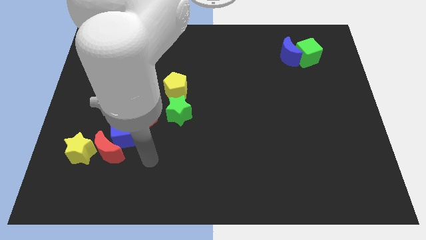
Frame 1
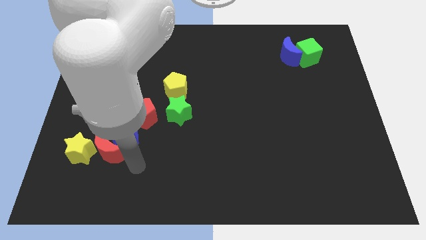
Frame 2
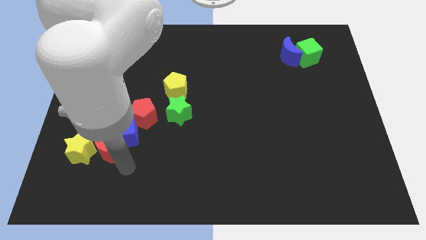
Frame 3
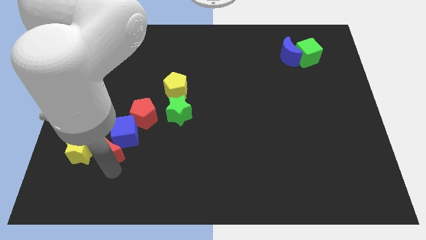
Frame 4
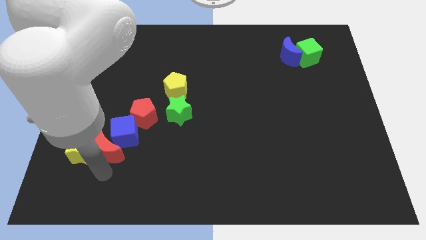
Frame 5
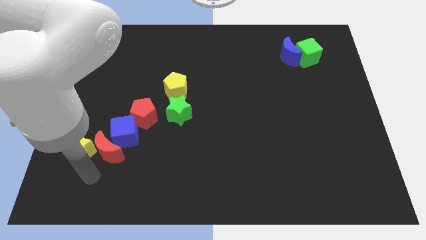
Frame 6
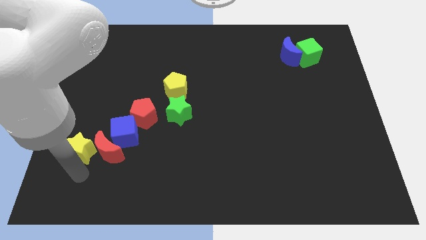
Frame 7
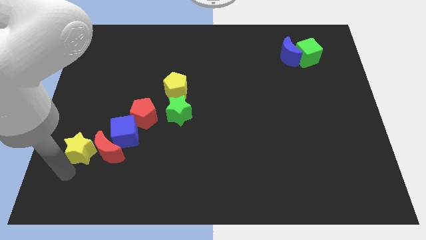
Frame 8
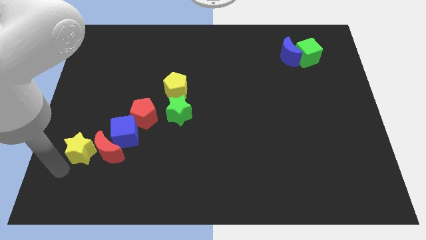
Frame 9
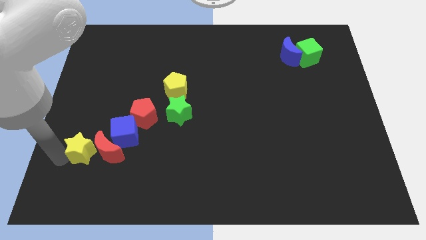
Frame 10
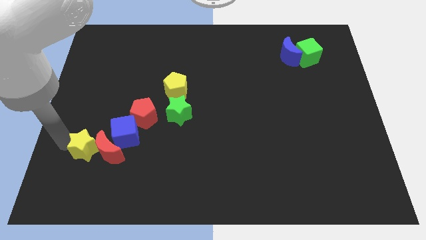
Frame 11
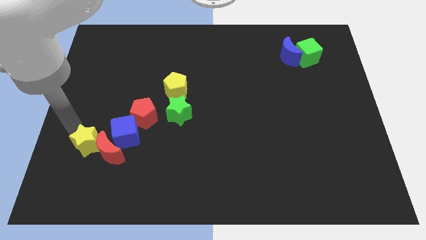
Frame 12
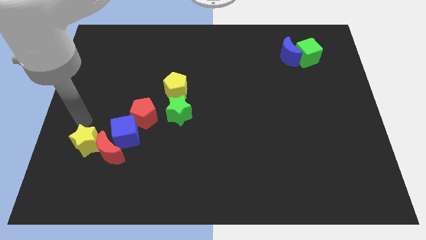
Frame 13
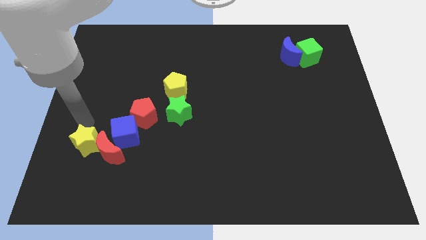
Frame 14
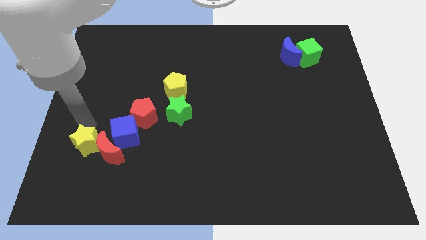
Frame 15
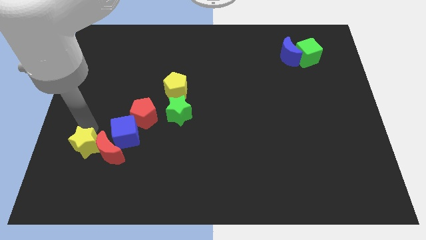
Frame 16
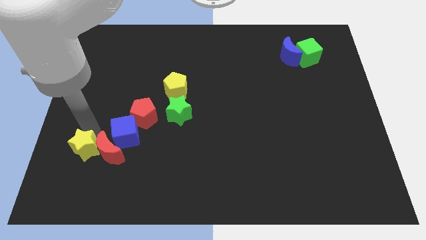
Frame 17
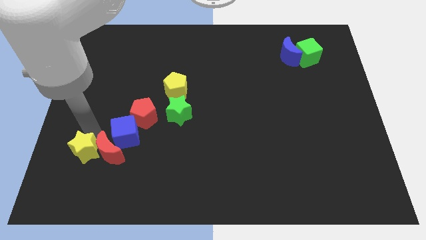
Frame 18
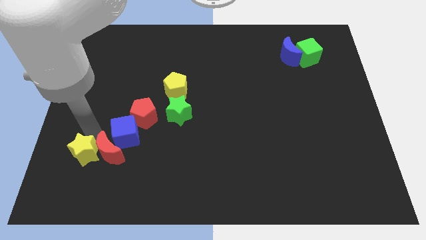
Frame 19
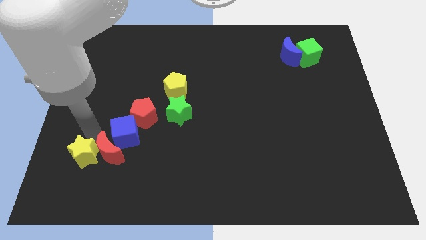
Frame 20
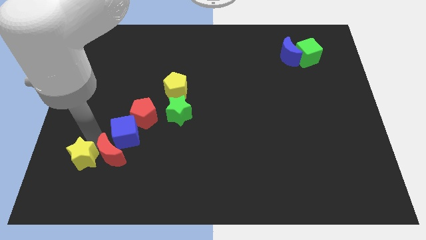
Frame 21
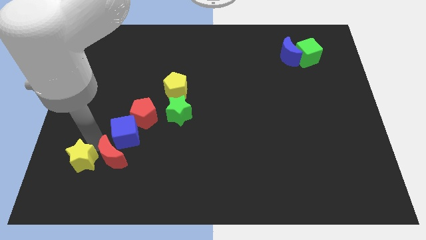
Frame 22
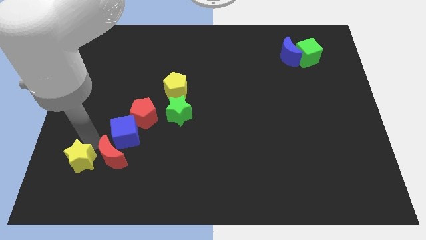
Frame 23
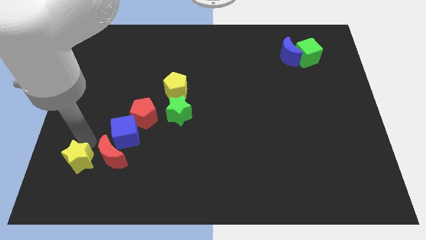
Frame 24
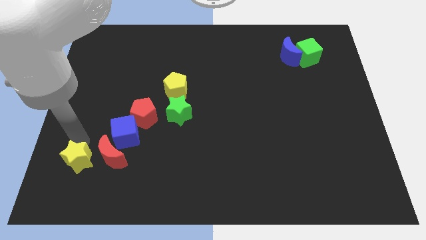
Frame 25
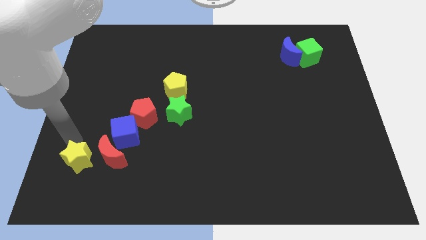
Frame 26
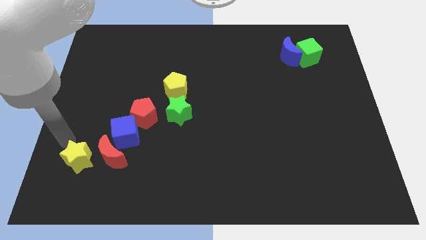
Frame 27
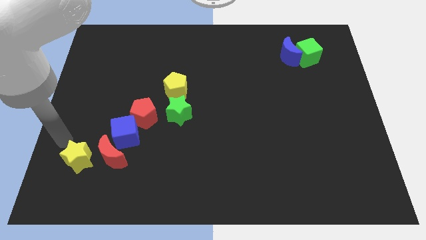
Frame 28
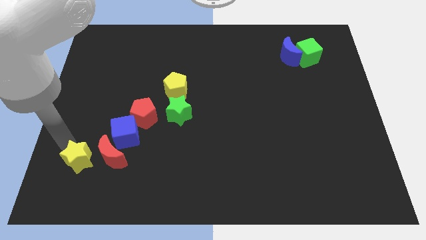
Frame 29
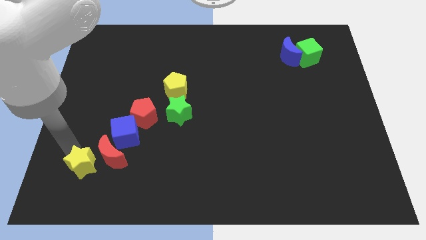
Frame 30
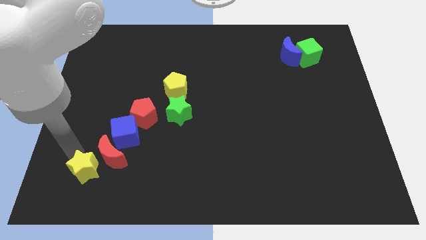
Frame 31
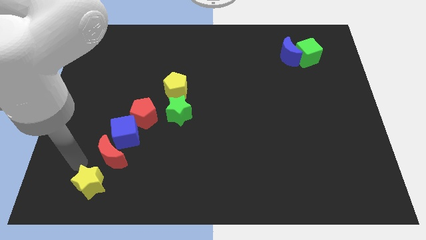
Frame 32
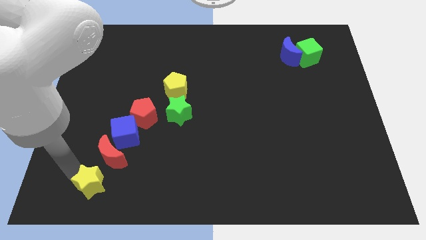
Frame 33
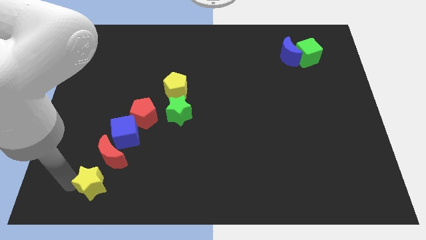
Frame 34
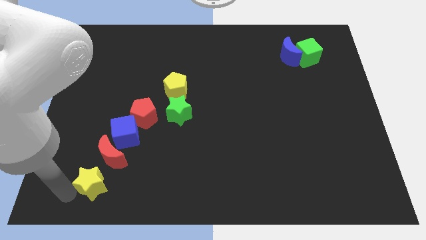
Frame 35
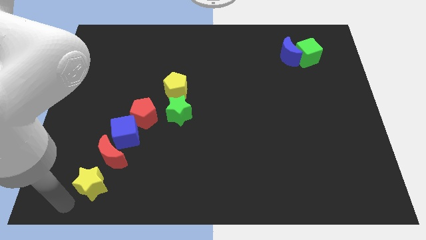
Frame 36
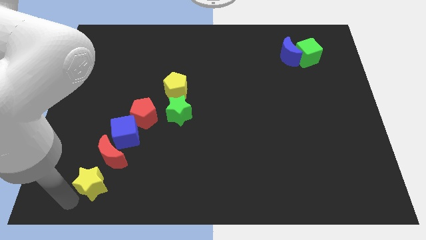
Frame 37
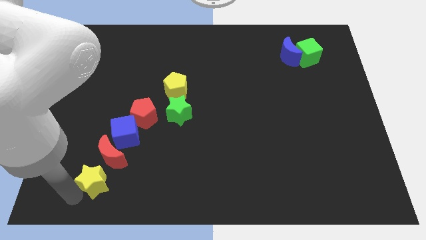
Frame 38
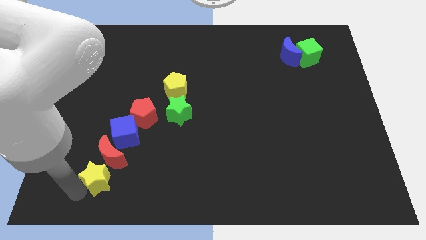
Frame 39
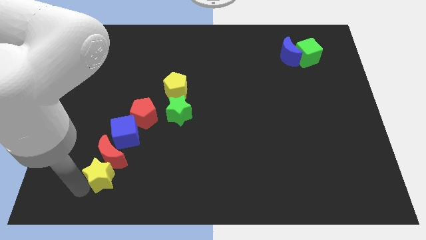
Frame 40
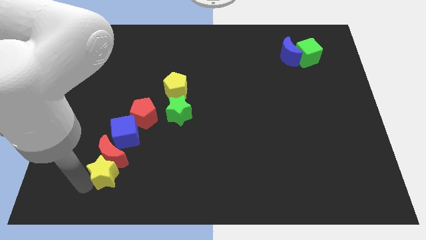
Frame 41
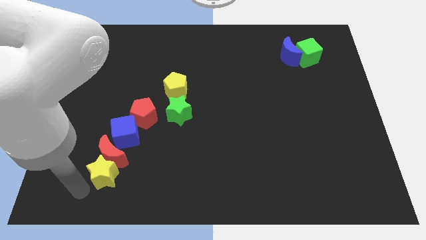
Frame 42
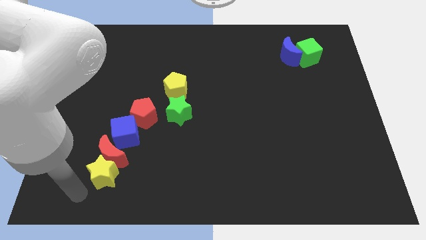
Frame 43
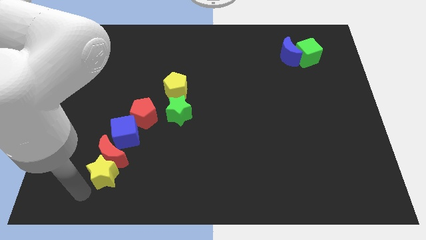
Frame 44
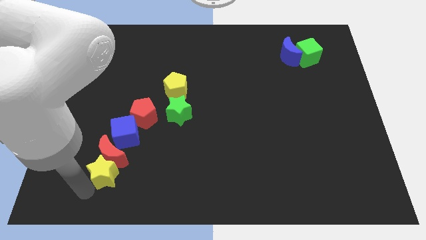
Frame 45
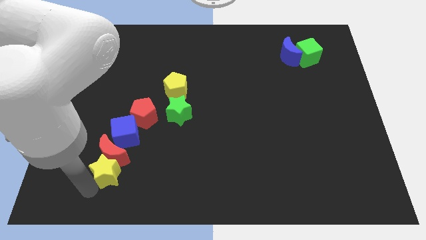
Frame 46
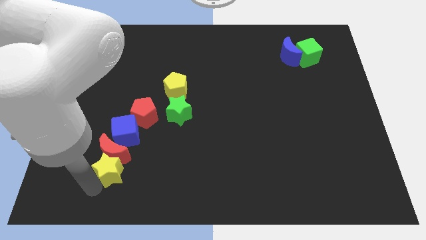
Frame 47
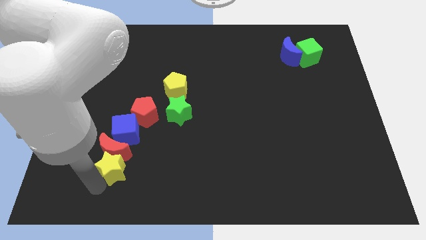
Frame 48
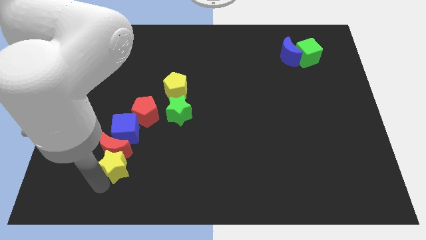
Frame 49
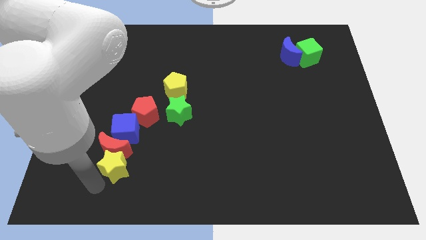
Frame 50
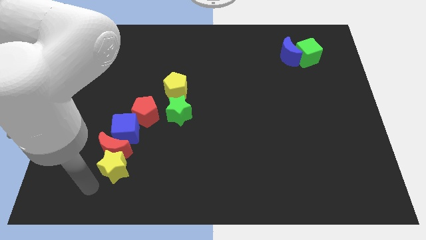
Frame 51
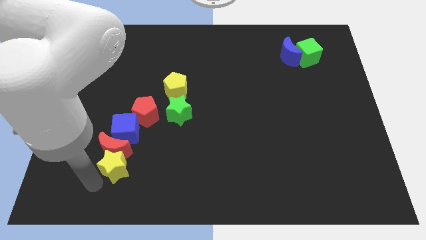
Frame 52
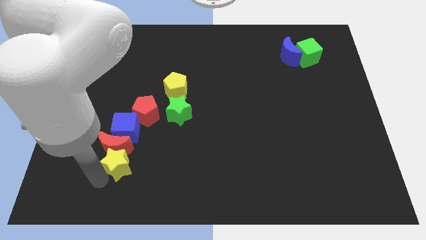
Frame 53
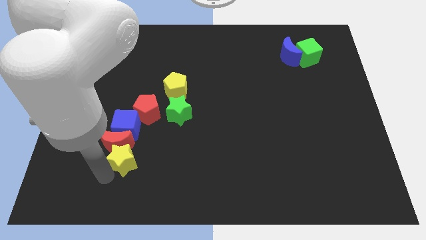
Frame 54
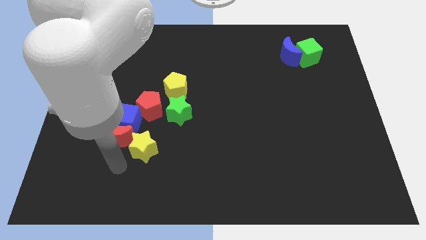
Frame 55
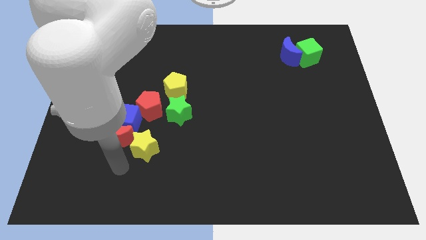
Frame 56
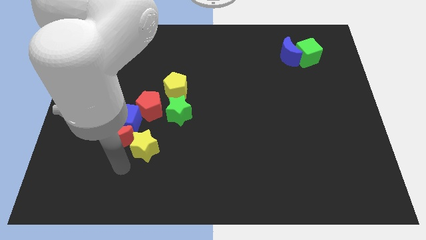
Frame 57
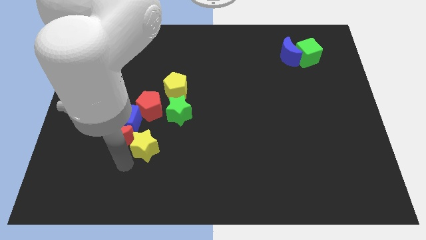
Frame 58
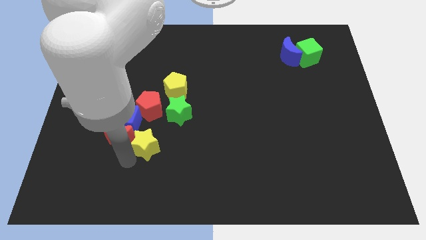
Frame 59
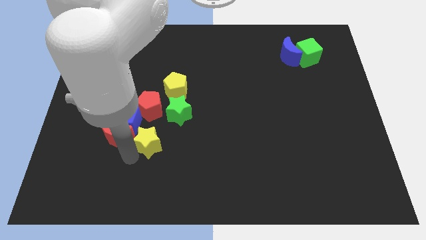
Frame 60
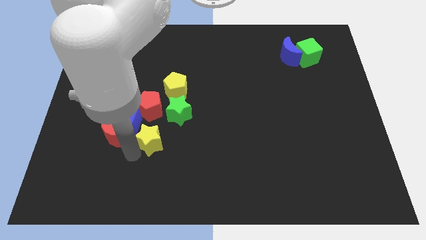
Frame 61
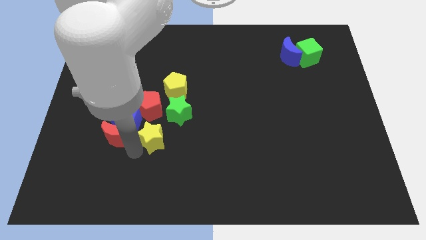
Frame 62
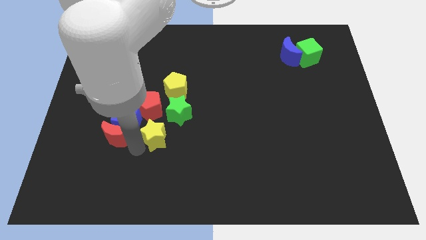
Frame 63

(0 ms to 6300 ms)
put the yellow star to the bottom side of the yellow pentagon
